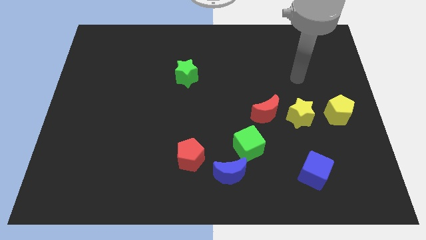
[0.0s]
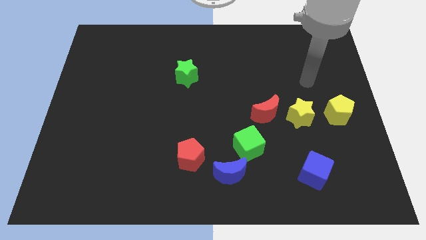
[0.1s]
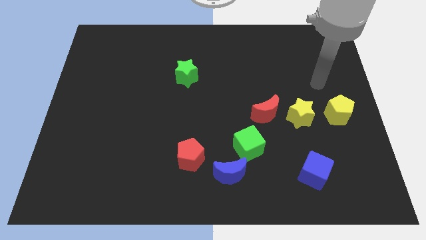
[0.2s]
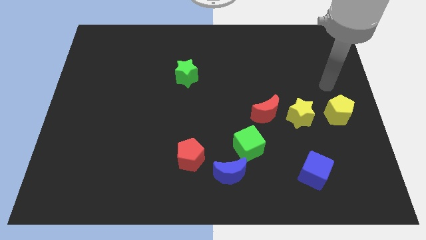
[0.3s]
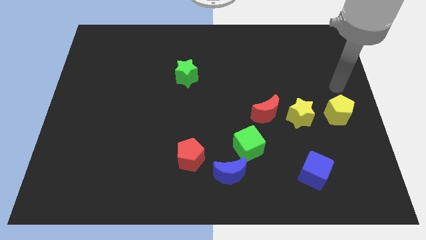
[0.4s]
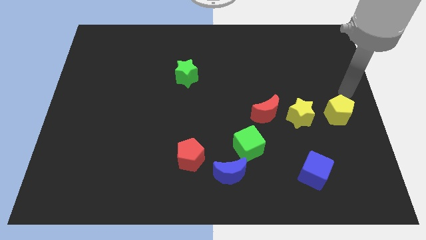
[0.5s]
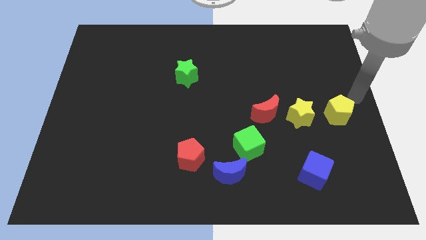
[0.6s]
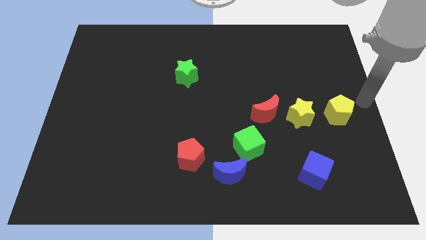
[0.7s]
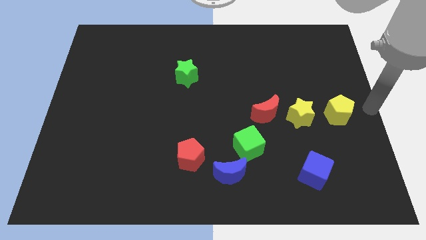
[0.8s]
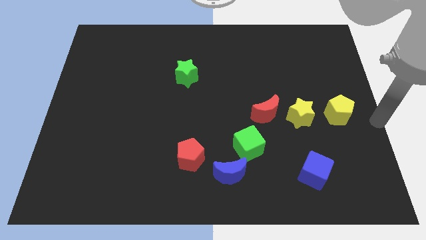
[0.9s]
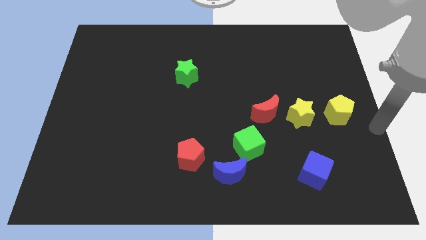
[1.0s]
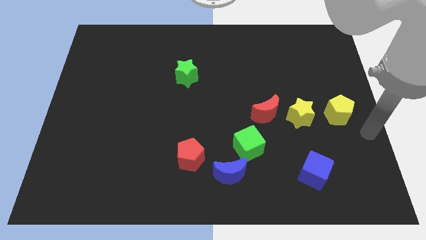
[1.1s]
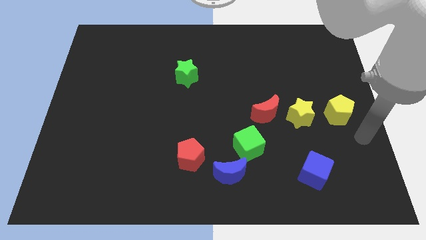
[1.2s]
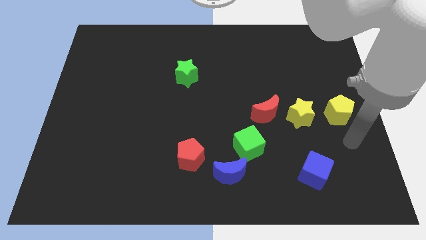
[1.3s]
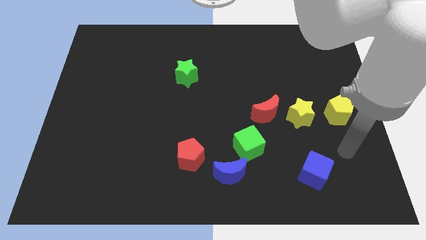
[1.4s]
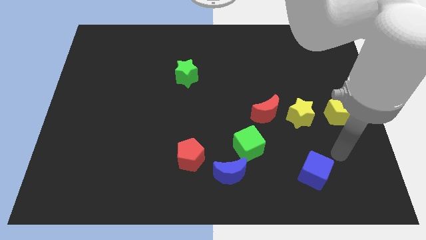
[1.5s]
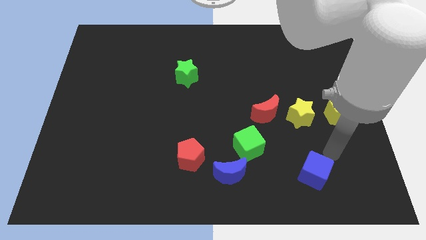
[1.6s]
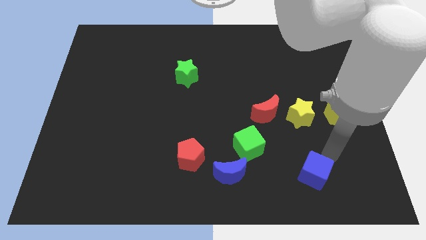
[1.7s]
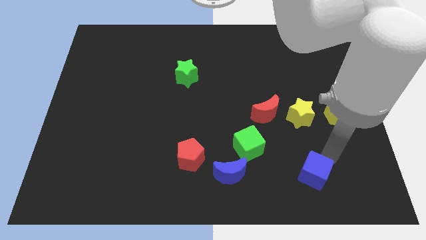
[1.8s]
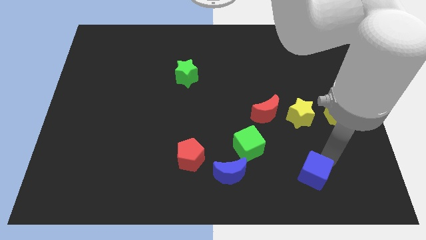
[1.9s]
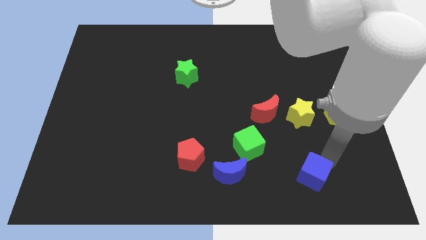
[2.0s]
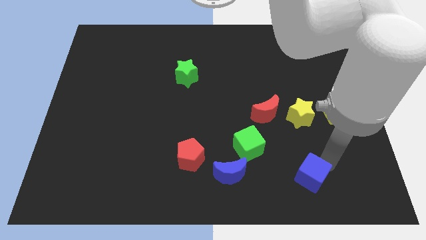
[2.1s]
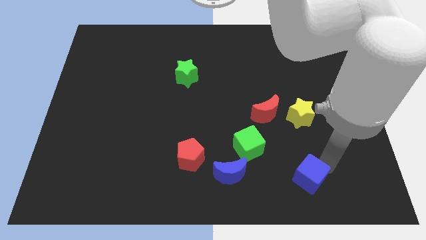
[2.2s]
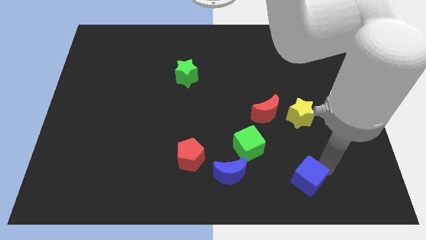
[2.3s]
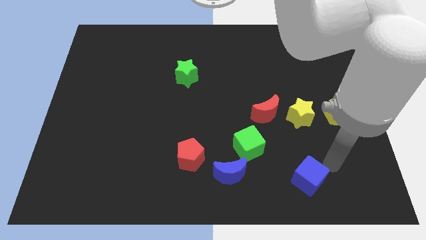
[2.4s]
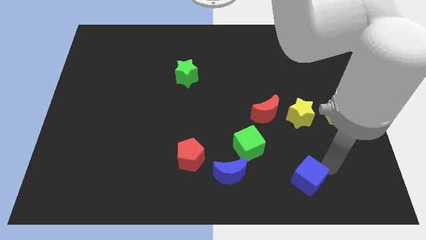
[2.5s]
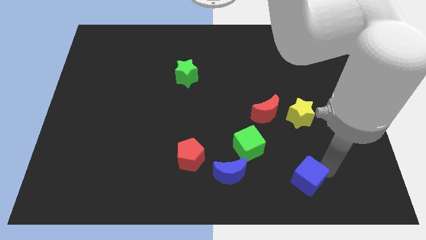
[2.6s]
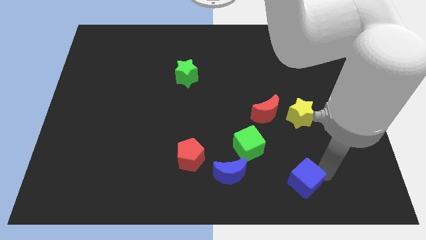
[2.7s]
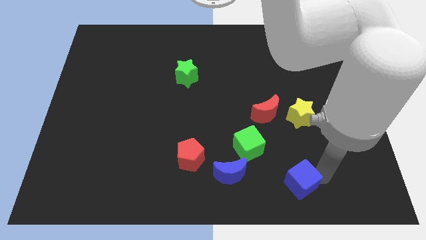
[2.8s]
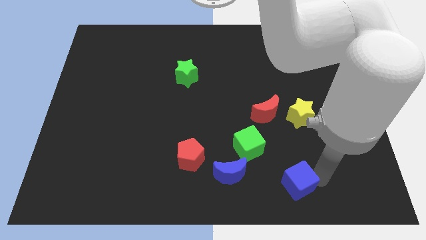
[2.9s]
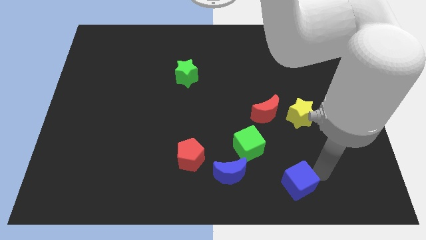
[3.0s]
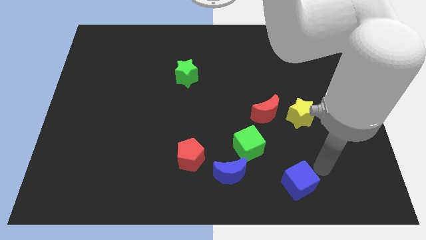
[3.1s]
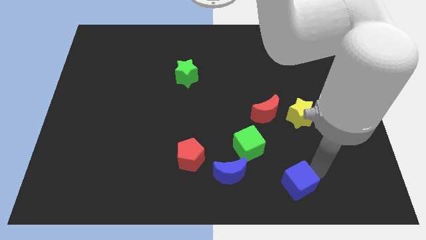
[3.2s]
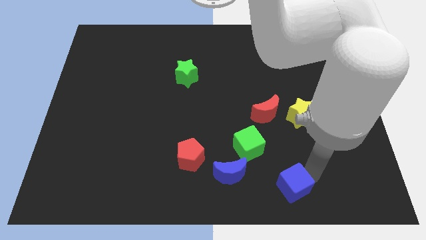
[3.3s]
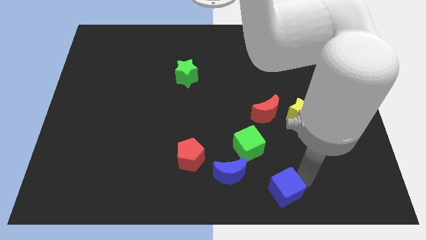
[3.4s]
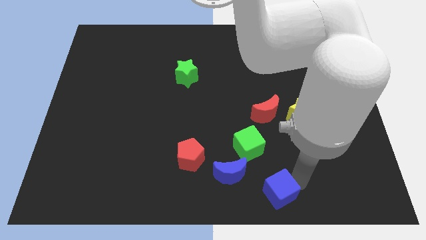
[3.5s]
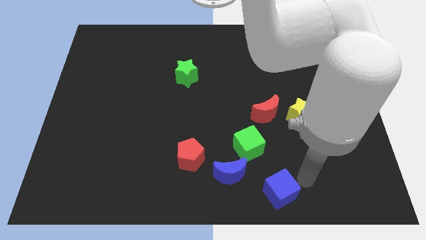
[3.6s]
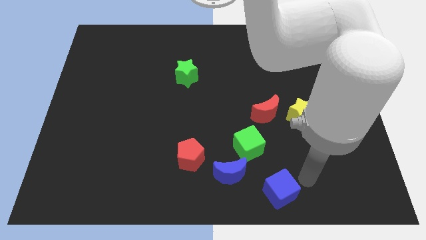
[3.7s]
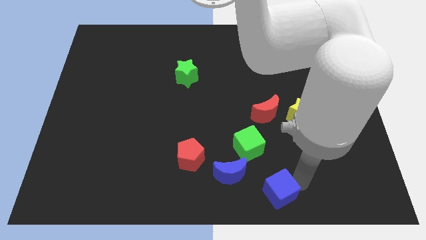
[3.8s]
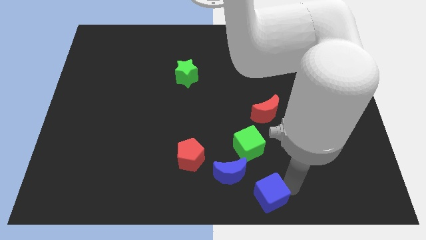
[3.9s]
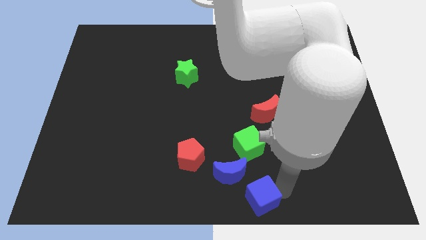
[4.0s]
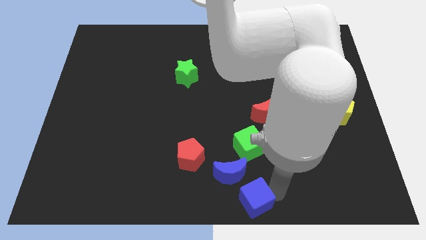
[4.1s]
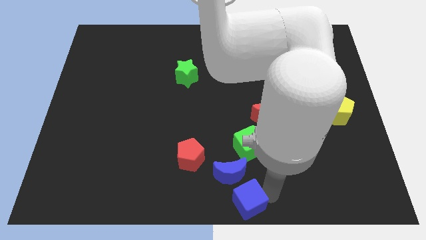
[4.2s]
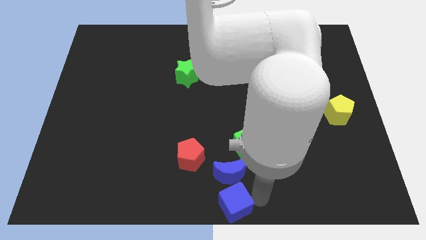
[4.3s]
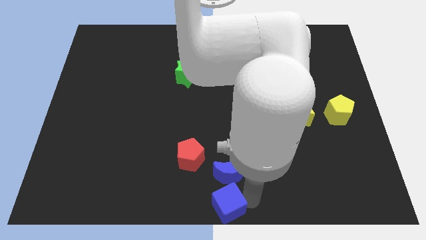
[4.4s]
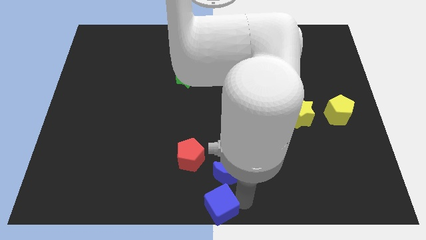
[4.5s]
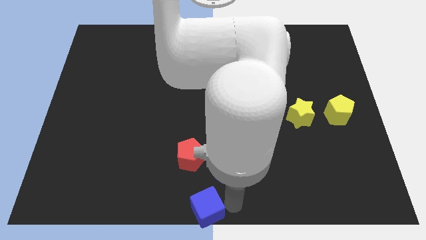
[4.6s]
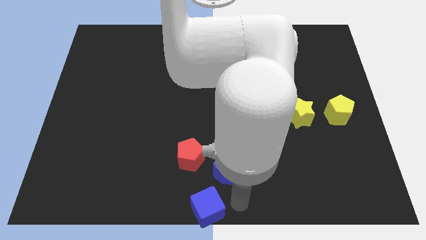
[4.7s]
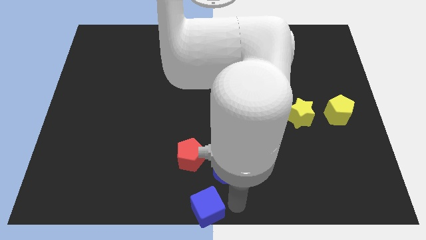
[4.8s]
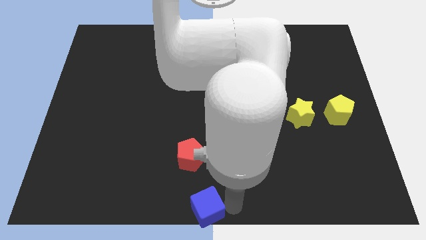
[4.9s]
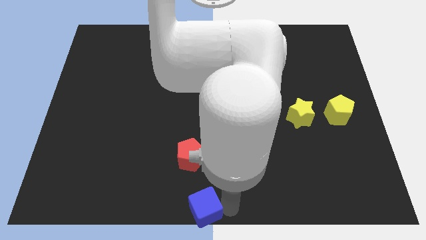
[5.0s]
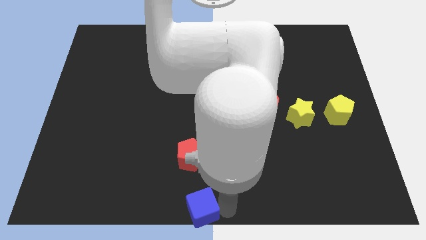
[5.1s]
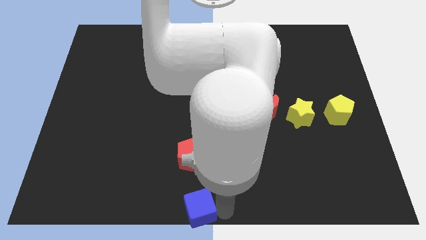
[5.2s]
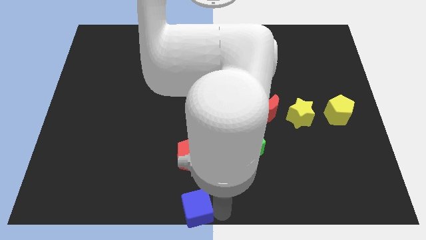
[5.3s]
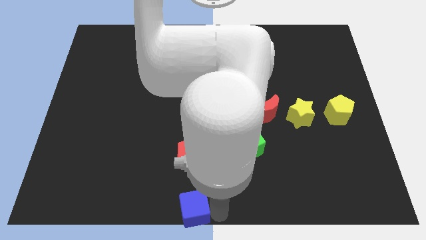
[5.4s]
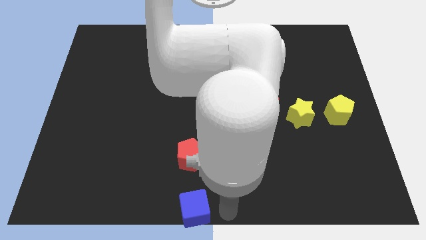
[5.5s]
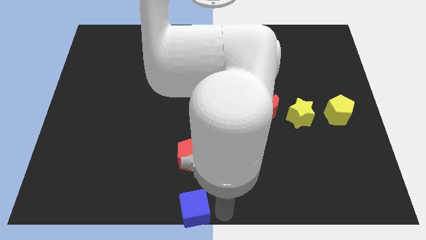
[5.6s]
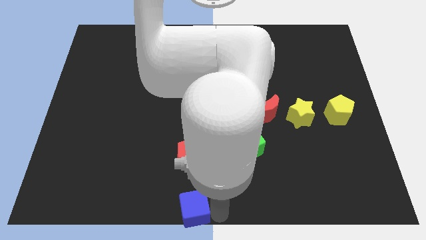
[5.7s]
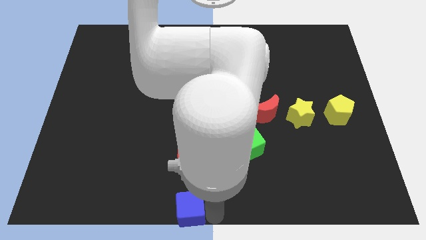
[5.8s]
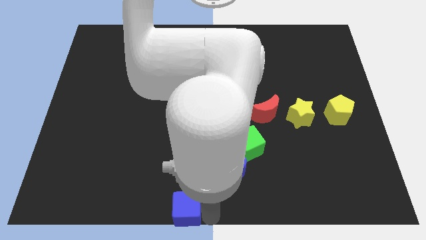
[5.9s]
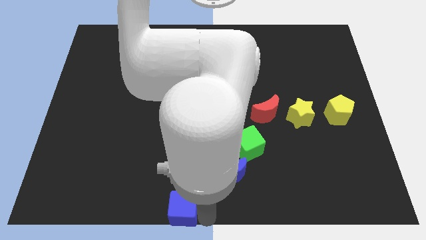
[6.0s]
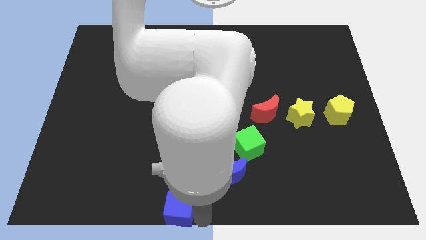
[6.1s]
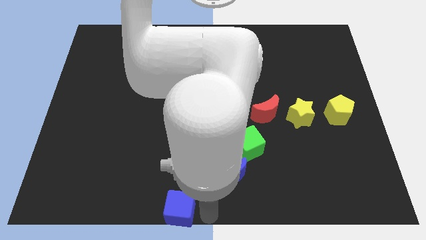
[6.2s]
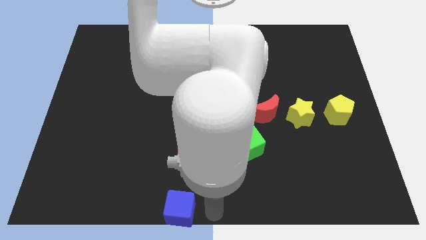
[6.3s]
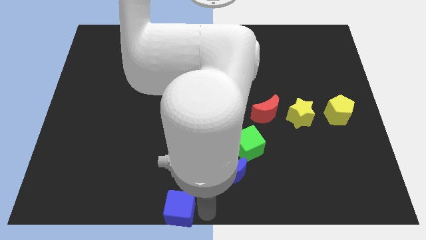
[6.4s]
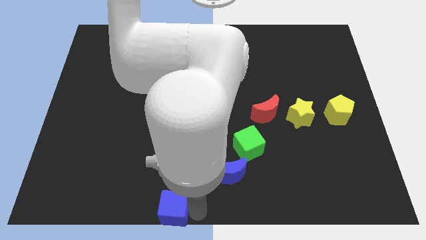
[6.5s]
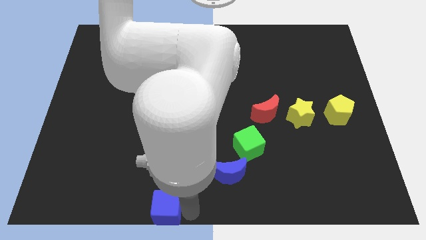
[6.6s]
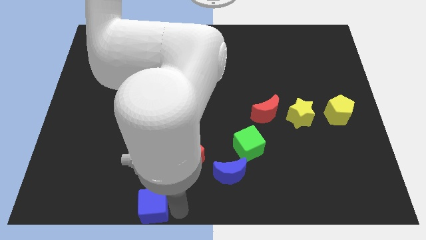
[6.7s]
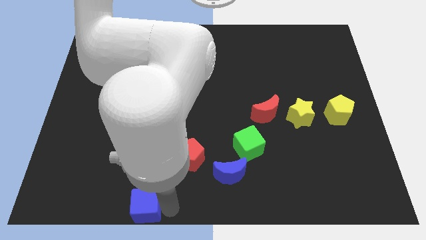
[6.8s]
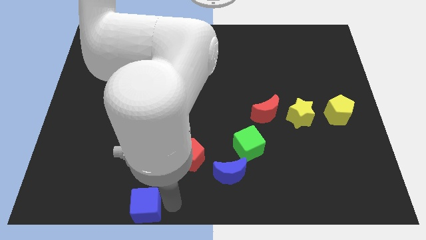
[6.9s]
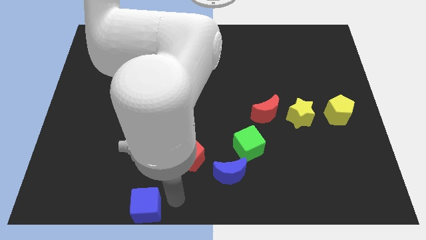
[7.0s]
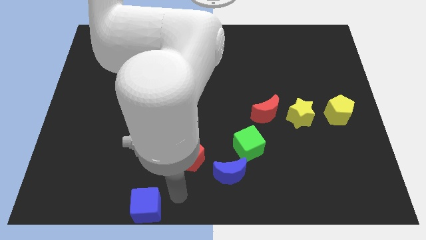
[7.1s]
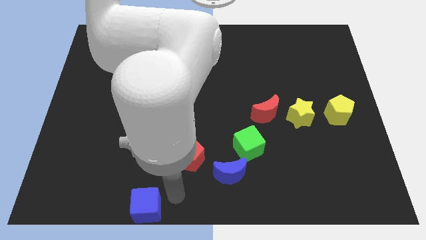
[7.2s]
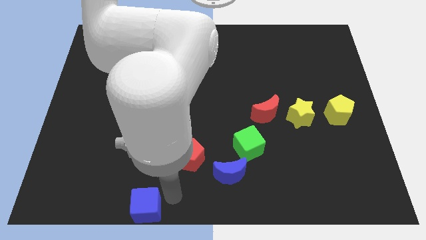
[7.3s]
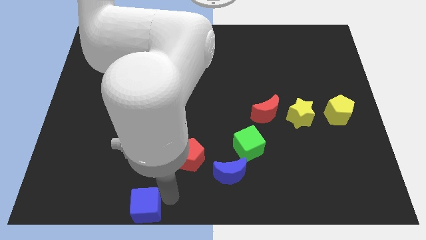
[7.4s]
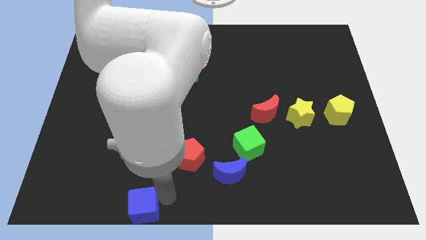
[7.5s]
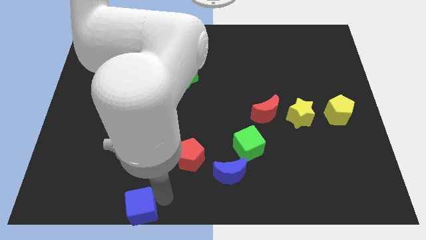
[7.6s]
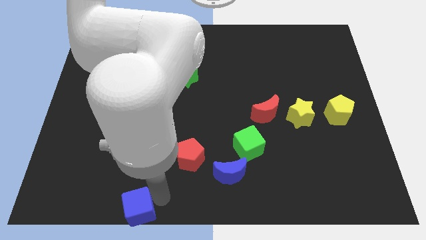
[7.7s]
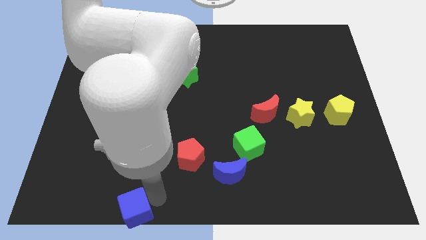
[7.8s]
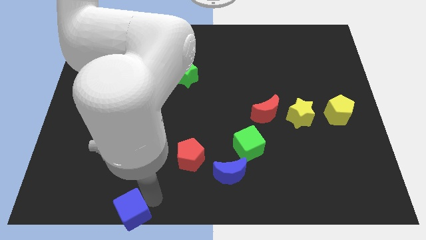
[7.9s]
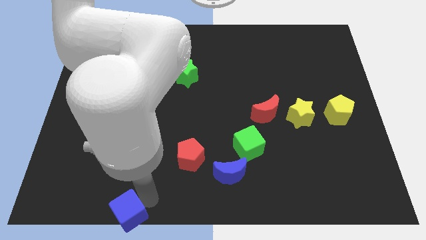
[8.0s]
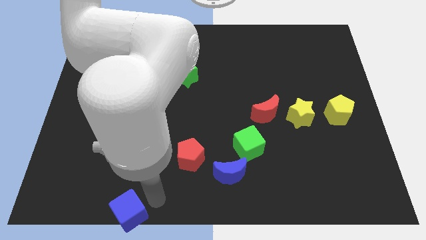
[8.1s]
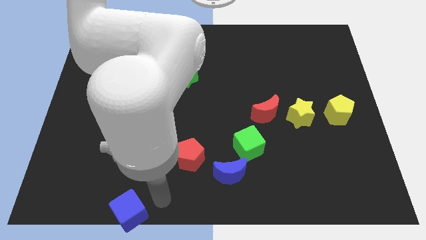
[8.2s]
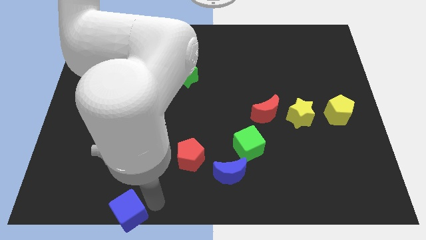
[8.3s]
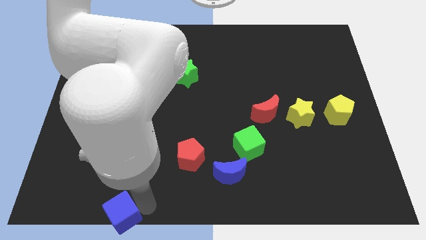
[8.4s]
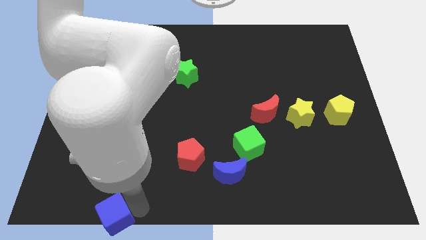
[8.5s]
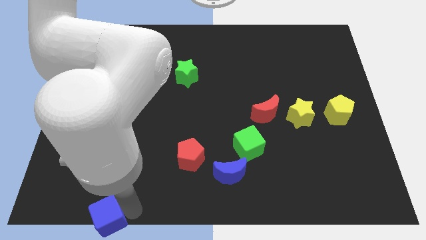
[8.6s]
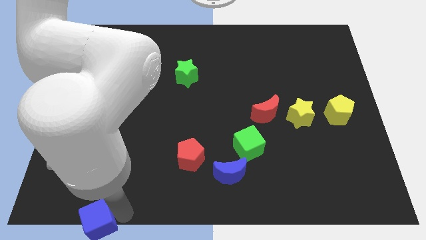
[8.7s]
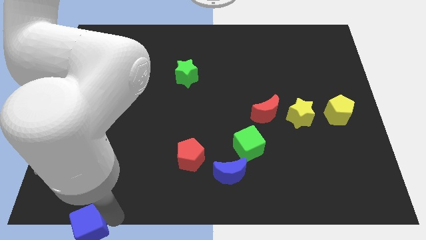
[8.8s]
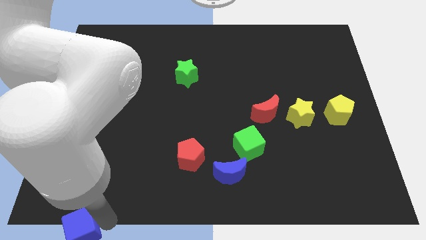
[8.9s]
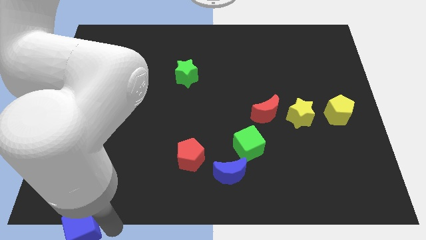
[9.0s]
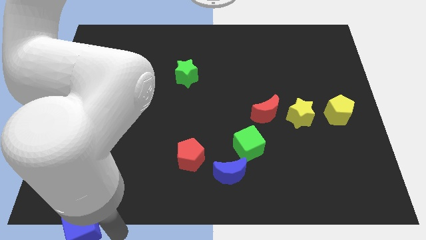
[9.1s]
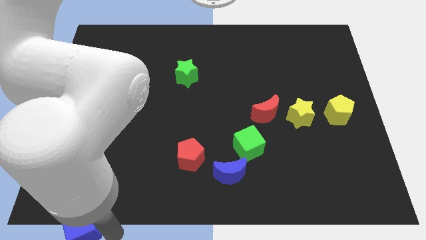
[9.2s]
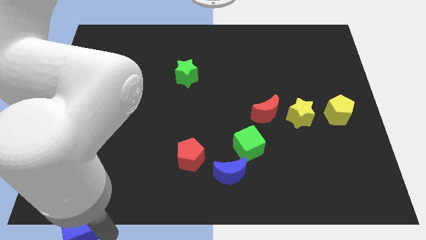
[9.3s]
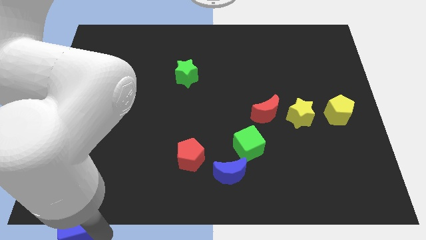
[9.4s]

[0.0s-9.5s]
slide the blue cube to the bottom left corner
